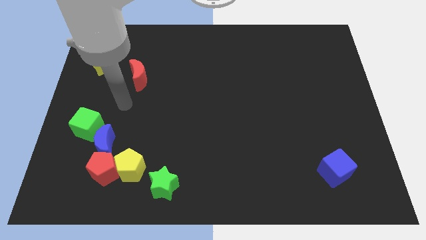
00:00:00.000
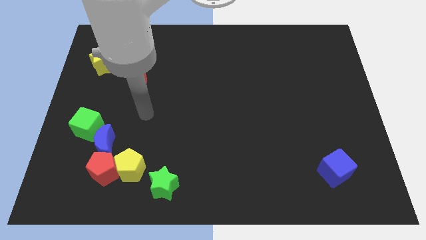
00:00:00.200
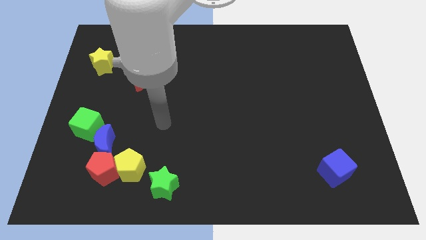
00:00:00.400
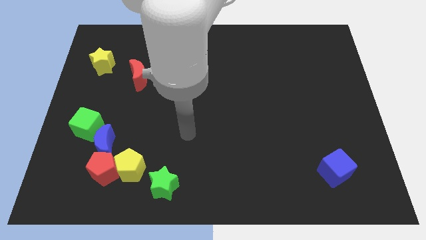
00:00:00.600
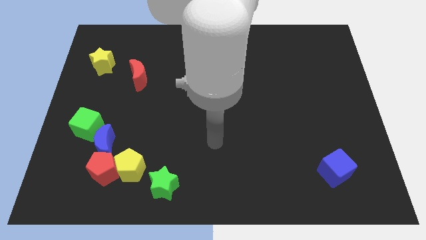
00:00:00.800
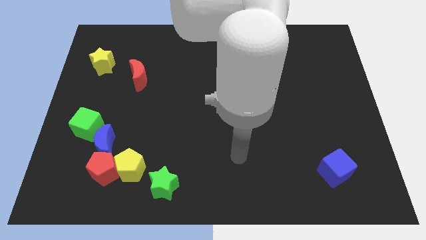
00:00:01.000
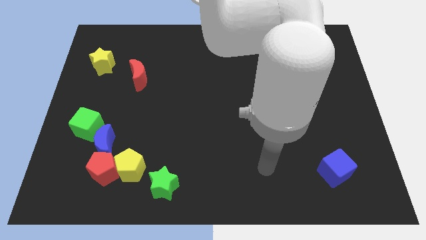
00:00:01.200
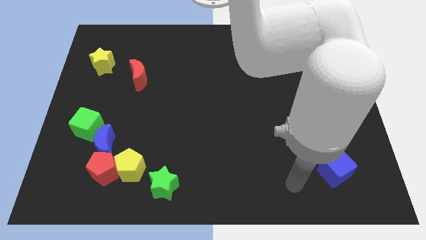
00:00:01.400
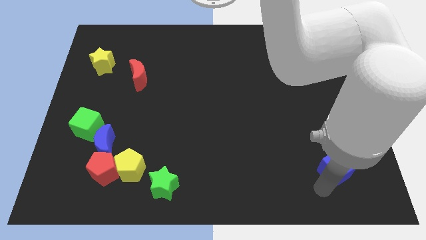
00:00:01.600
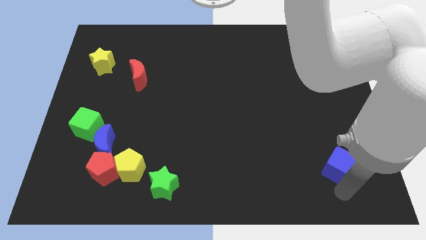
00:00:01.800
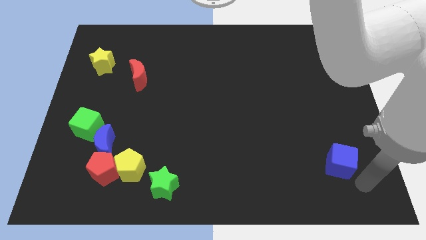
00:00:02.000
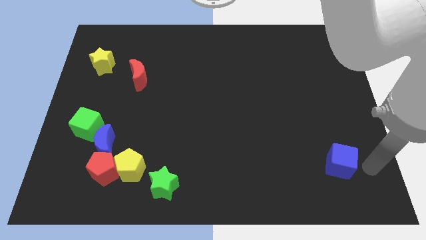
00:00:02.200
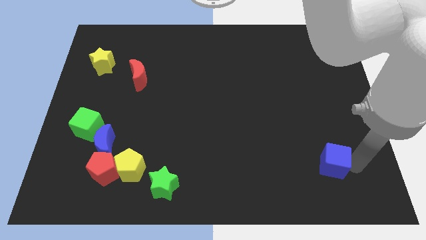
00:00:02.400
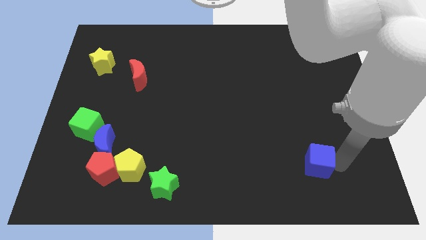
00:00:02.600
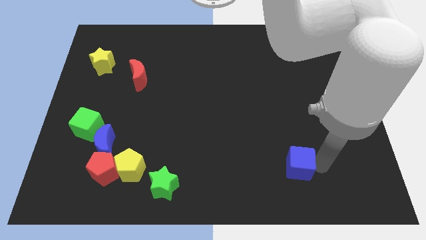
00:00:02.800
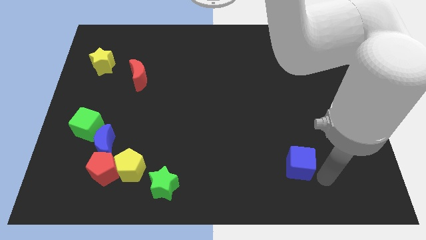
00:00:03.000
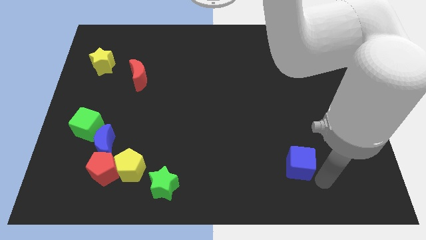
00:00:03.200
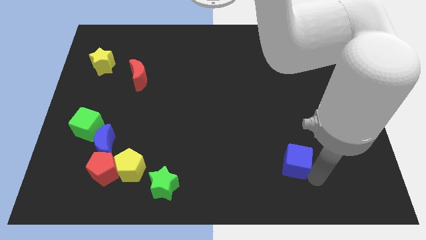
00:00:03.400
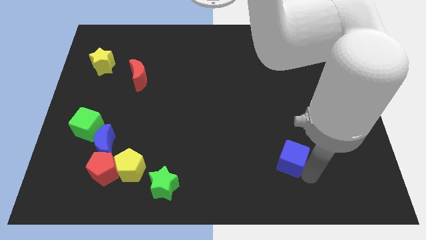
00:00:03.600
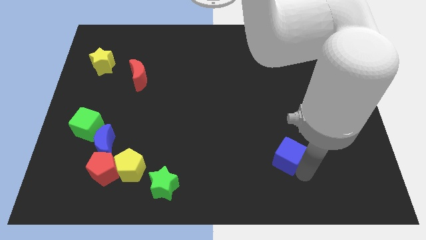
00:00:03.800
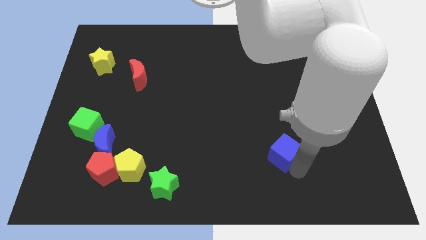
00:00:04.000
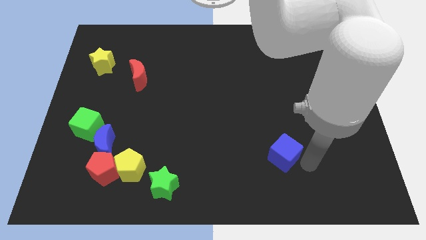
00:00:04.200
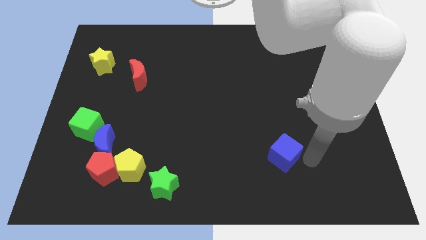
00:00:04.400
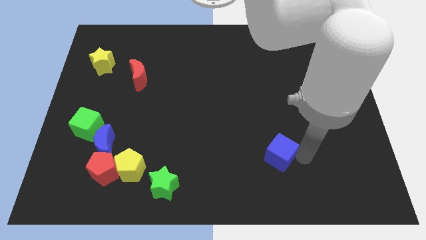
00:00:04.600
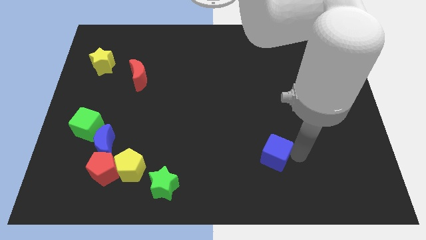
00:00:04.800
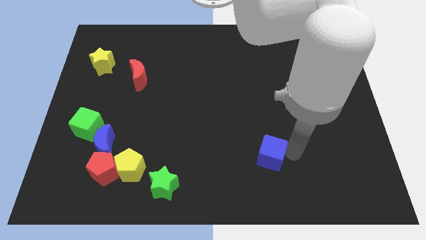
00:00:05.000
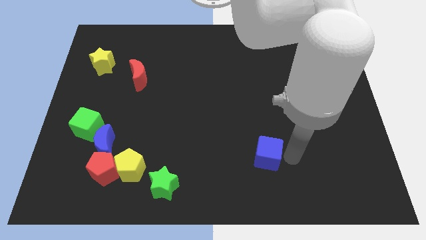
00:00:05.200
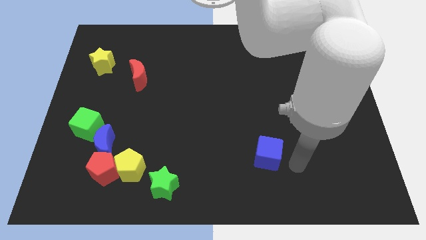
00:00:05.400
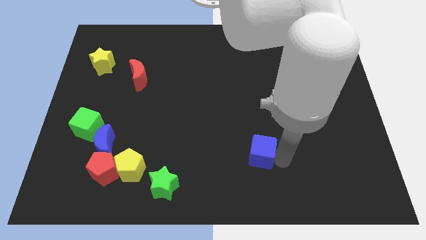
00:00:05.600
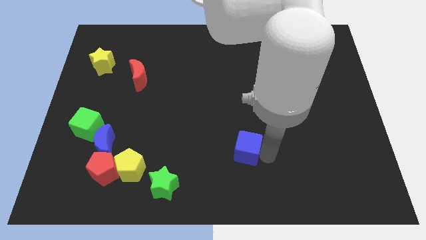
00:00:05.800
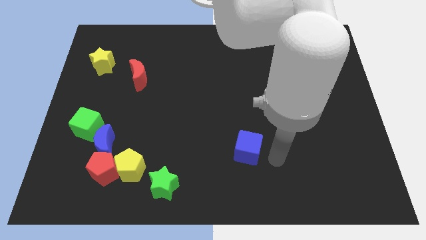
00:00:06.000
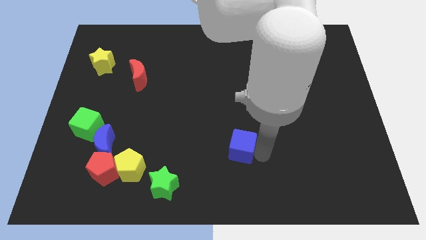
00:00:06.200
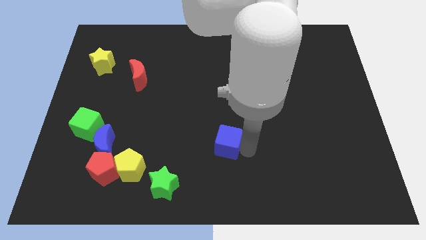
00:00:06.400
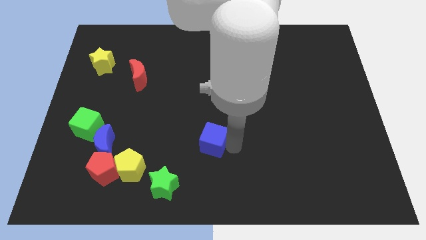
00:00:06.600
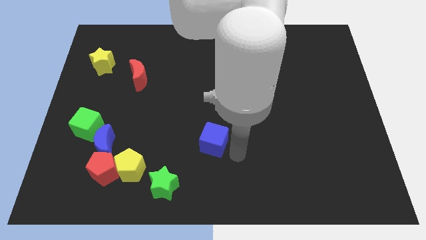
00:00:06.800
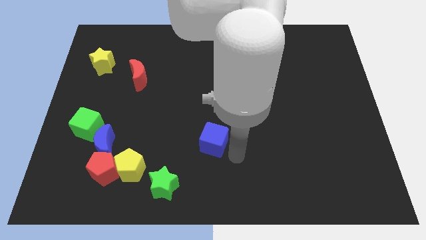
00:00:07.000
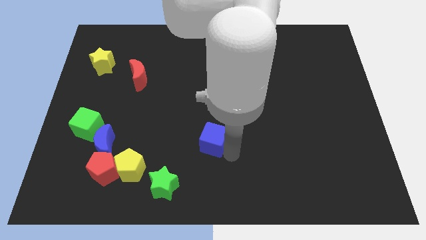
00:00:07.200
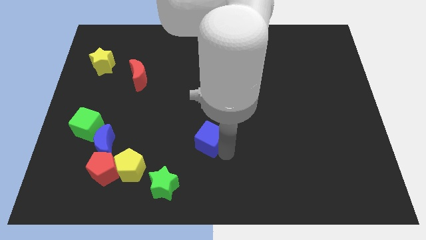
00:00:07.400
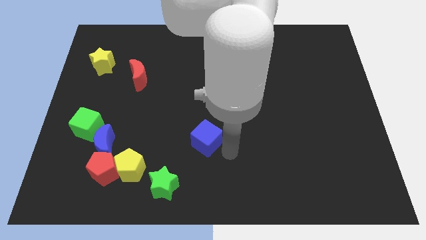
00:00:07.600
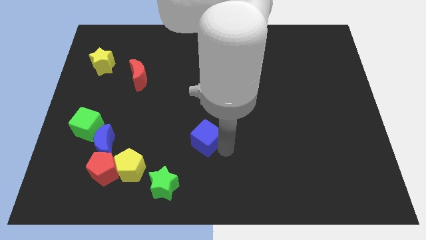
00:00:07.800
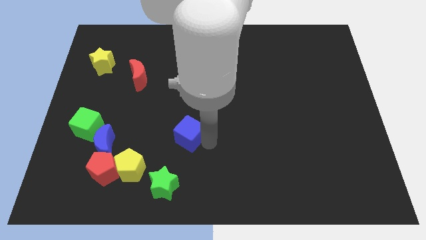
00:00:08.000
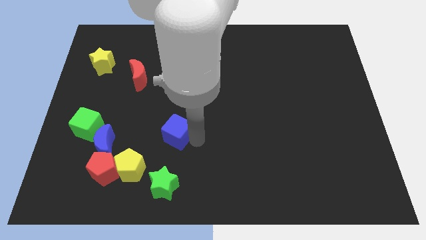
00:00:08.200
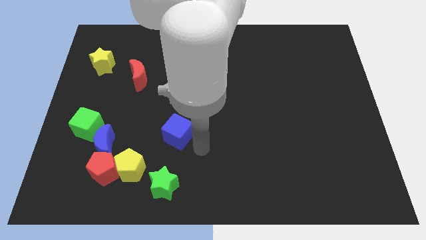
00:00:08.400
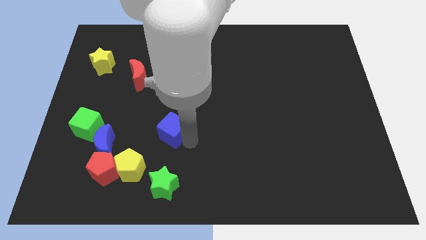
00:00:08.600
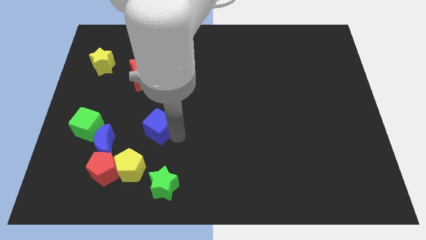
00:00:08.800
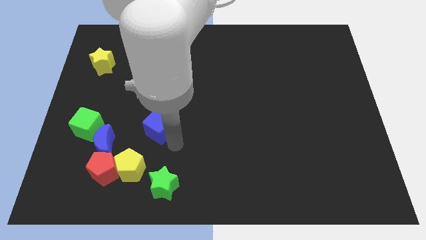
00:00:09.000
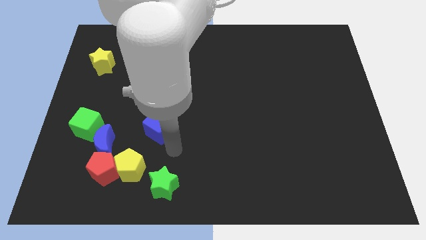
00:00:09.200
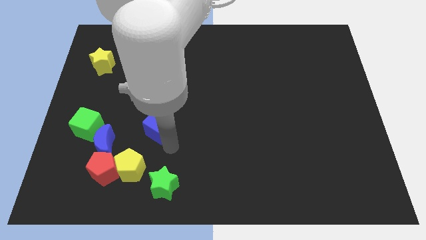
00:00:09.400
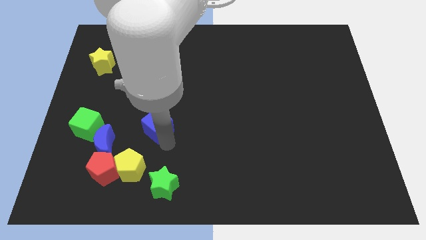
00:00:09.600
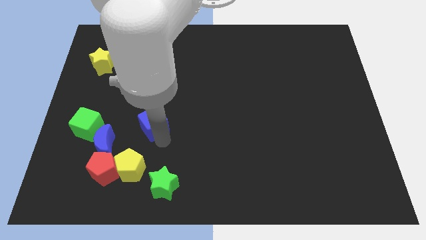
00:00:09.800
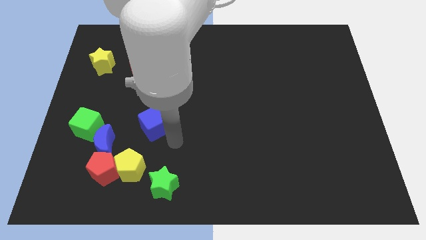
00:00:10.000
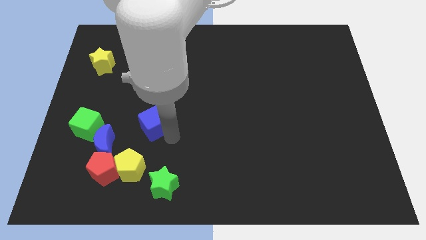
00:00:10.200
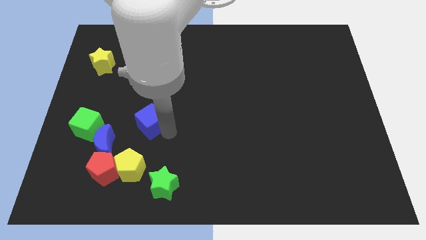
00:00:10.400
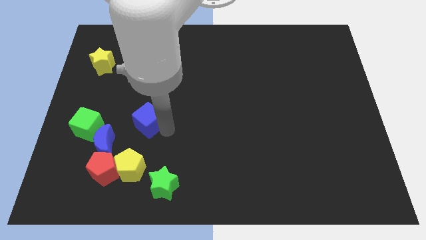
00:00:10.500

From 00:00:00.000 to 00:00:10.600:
slide the blue cube to the bottom of the red moon

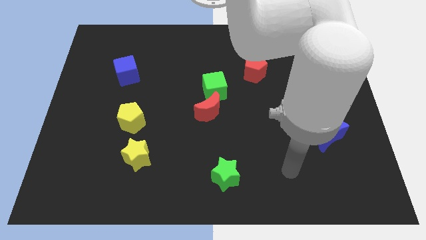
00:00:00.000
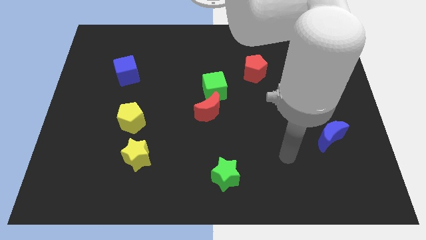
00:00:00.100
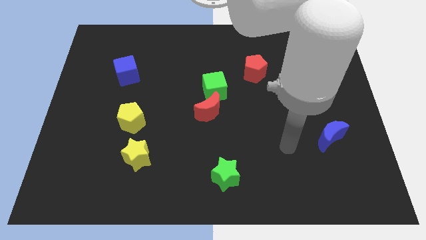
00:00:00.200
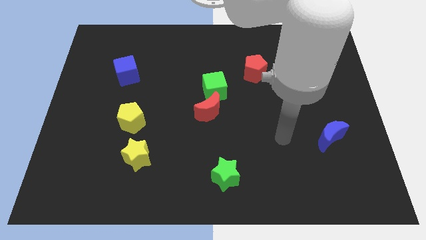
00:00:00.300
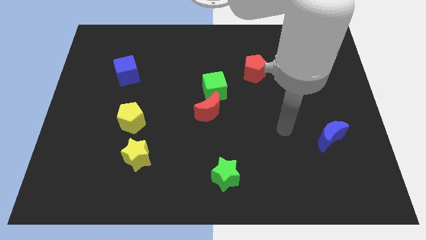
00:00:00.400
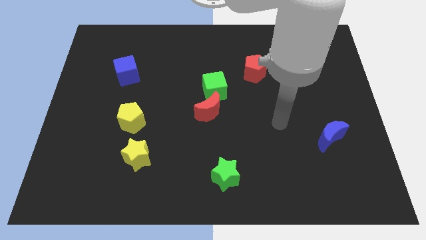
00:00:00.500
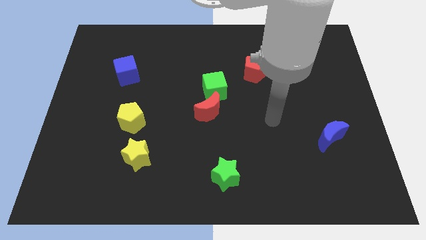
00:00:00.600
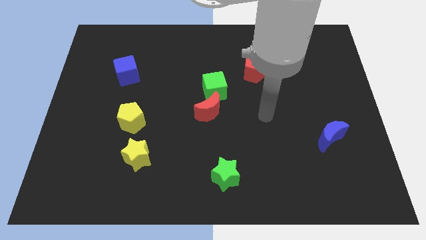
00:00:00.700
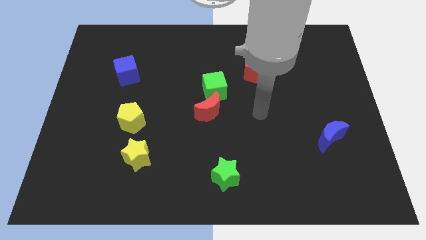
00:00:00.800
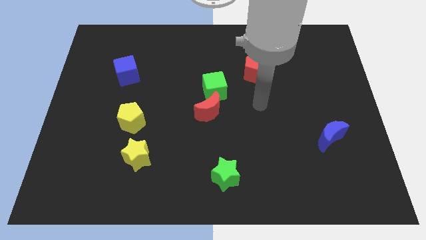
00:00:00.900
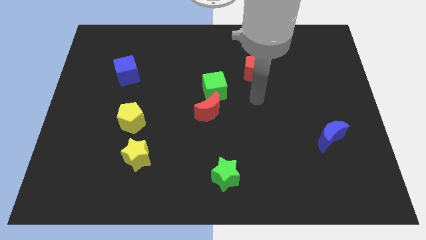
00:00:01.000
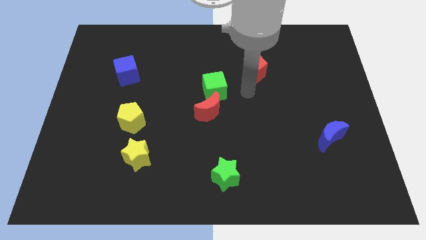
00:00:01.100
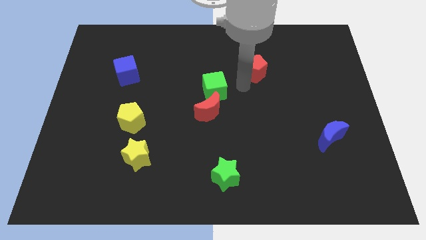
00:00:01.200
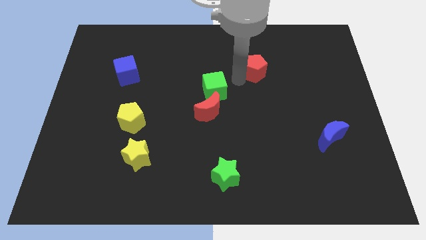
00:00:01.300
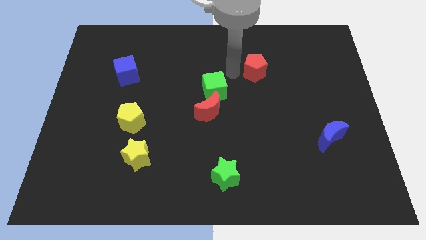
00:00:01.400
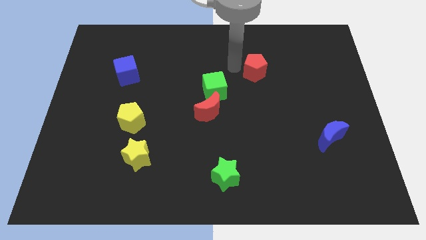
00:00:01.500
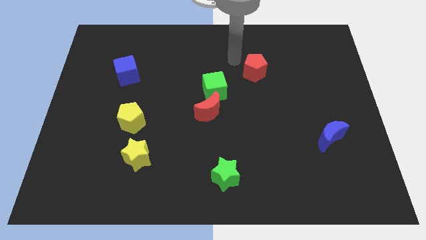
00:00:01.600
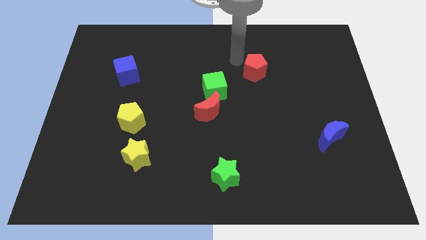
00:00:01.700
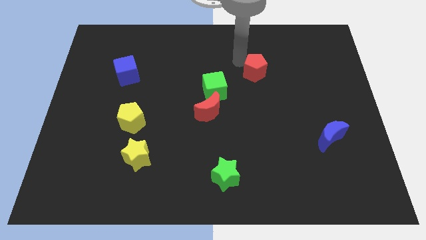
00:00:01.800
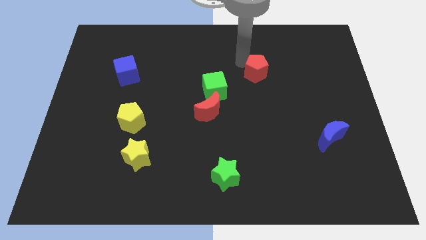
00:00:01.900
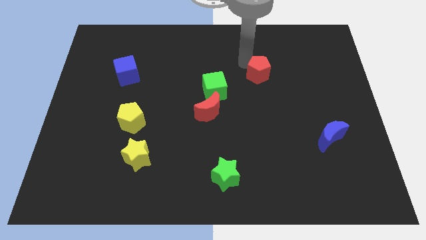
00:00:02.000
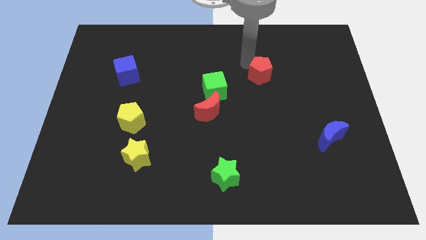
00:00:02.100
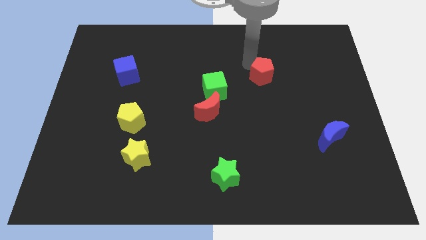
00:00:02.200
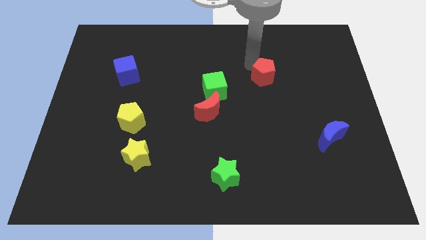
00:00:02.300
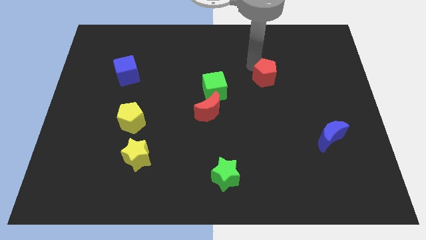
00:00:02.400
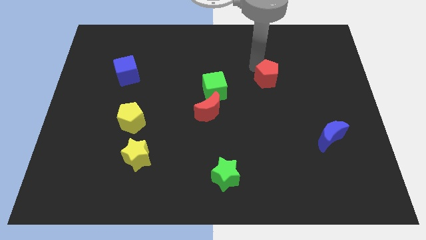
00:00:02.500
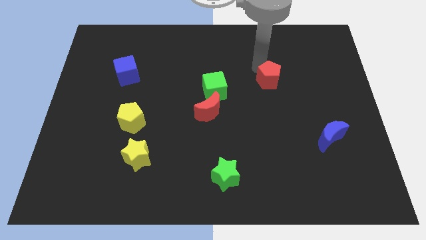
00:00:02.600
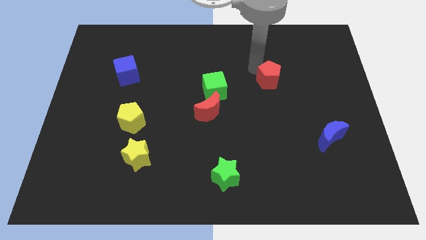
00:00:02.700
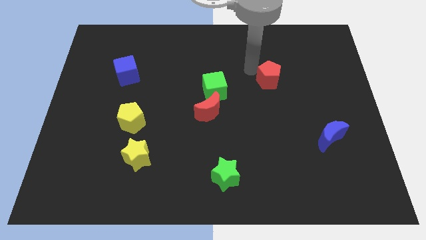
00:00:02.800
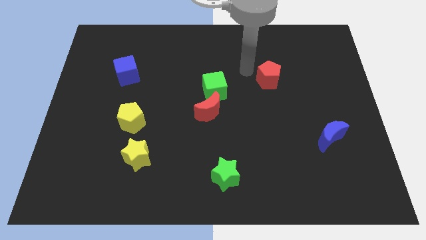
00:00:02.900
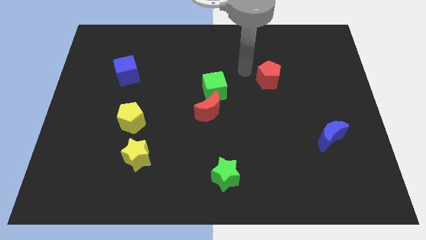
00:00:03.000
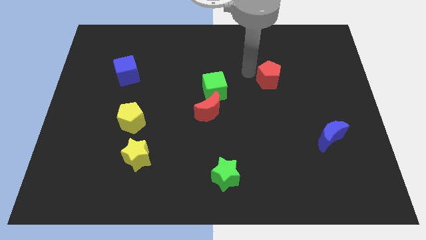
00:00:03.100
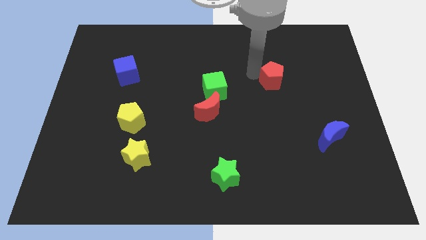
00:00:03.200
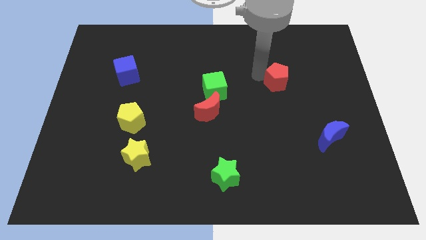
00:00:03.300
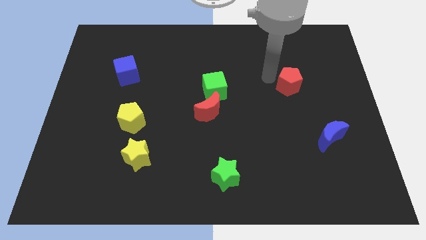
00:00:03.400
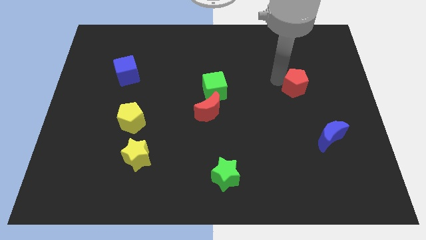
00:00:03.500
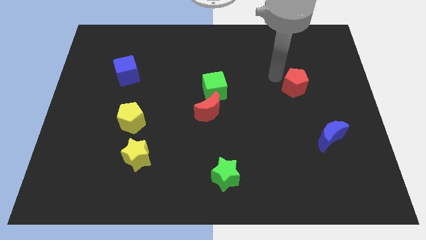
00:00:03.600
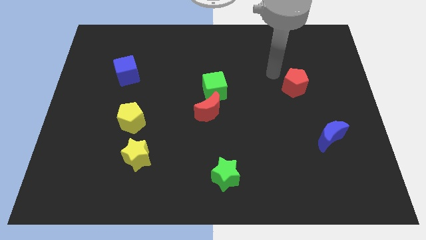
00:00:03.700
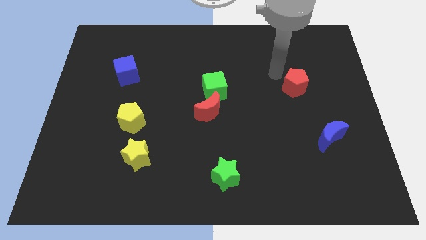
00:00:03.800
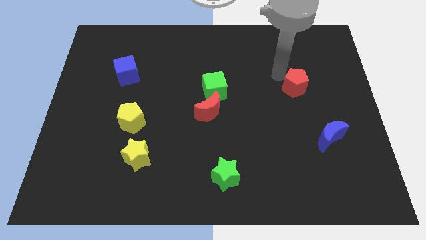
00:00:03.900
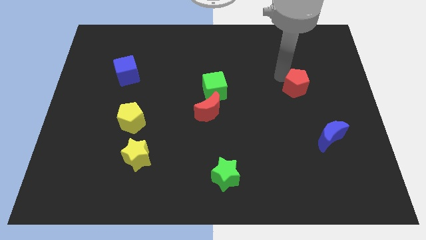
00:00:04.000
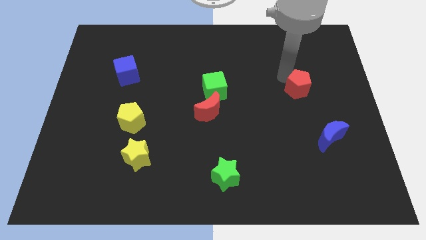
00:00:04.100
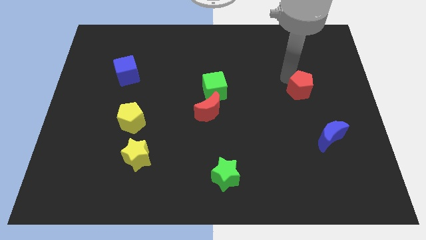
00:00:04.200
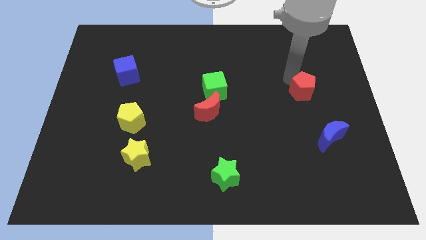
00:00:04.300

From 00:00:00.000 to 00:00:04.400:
push the red pentagon to the top of the blue moon
